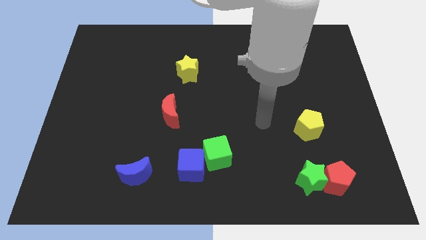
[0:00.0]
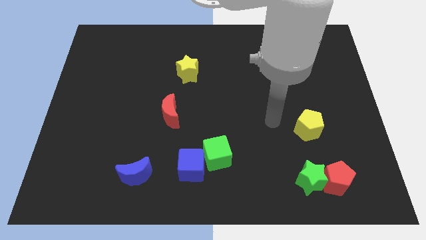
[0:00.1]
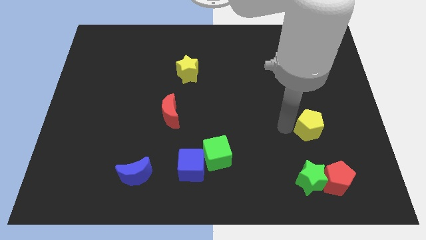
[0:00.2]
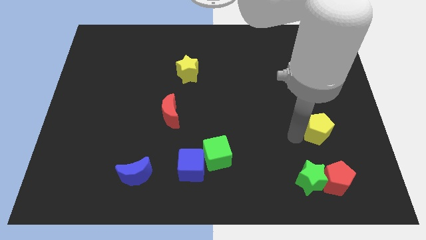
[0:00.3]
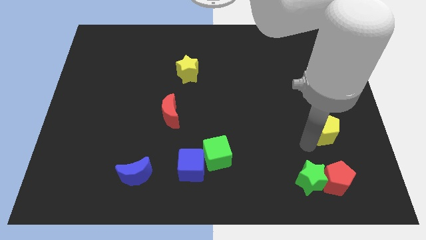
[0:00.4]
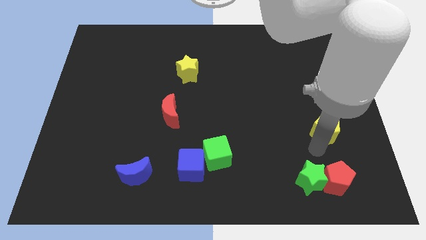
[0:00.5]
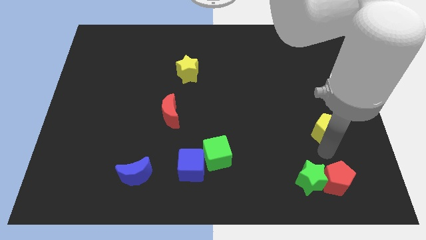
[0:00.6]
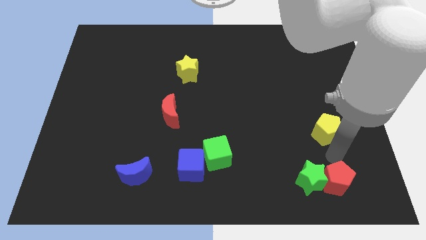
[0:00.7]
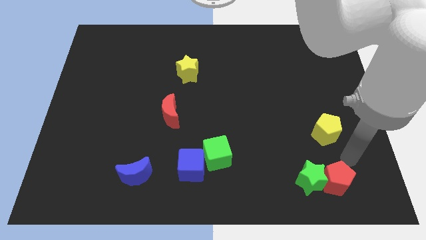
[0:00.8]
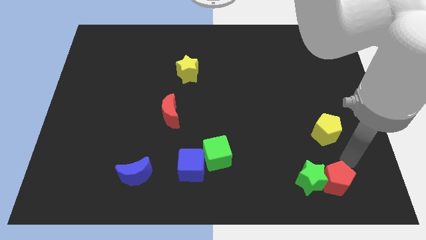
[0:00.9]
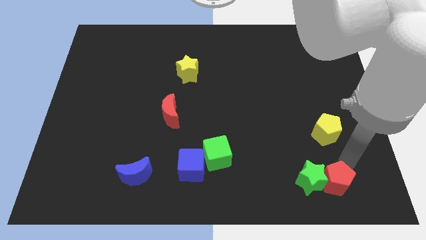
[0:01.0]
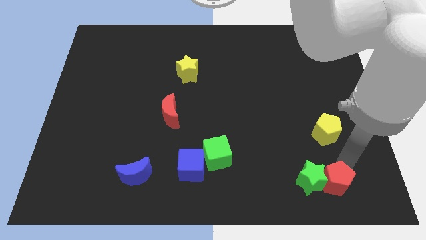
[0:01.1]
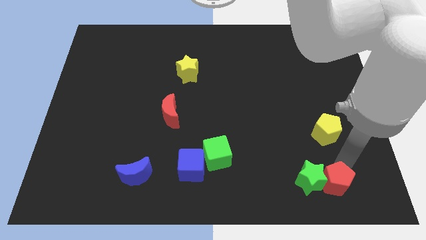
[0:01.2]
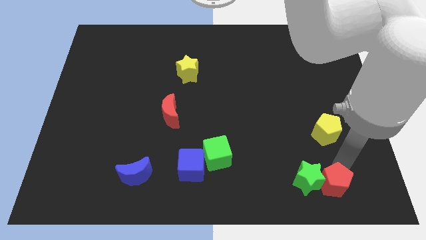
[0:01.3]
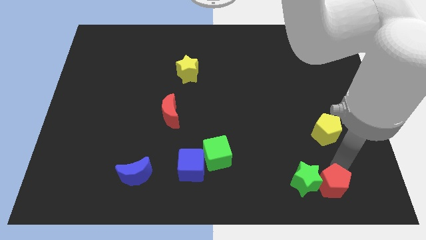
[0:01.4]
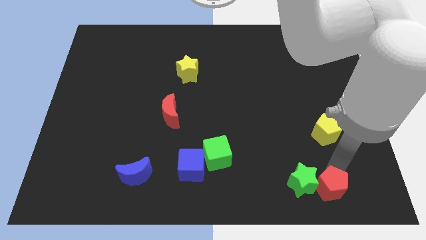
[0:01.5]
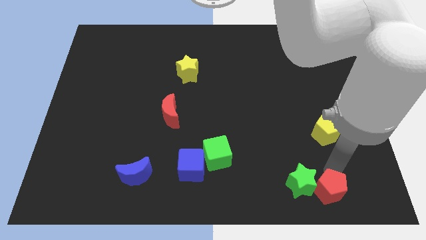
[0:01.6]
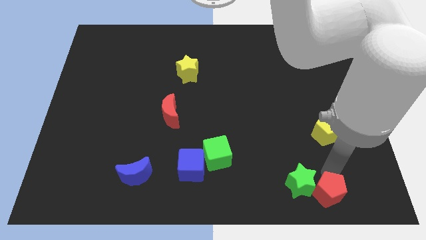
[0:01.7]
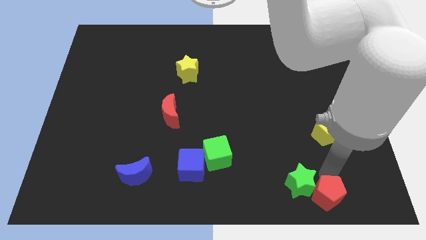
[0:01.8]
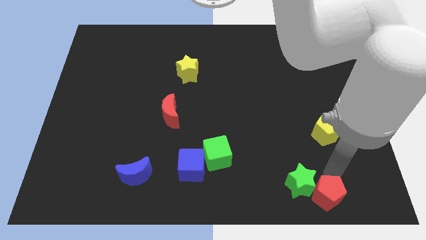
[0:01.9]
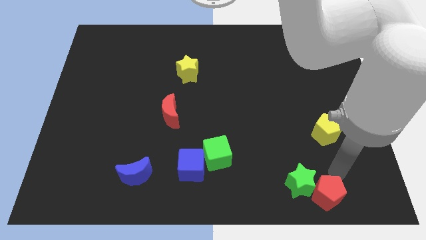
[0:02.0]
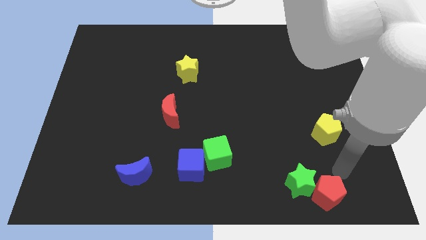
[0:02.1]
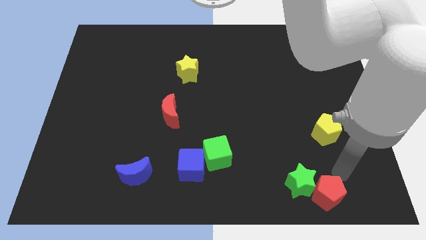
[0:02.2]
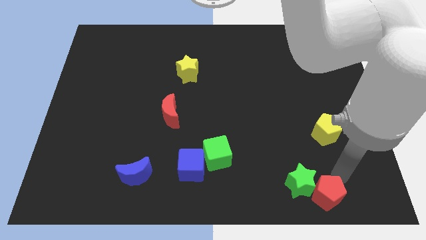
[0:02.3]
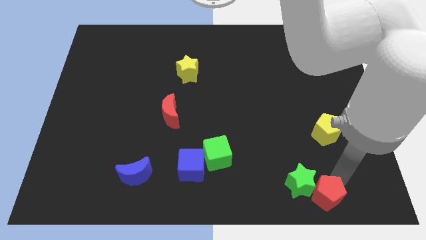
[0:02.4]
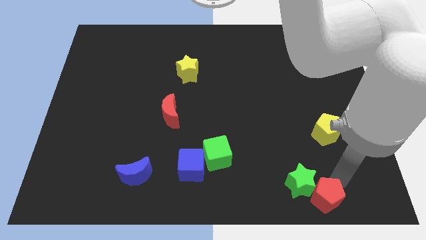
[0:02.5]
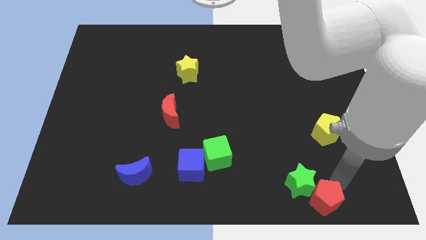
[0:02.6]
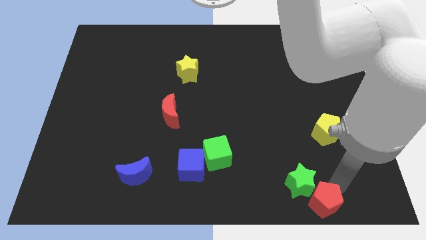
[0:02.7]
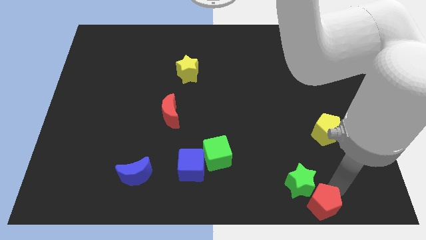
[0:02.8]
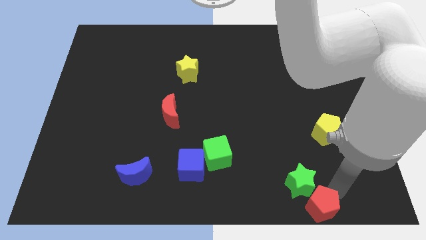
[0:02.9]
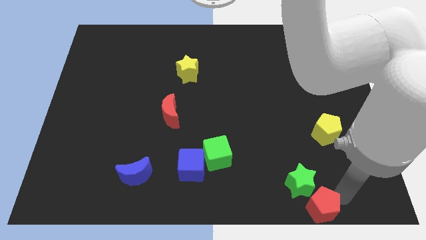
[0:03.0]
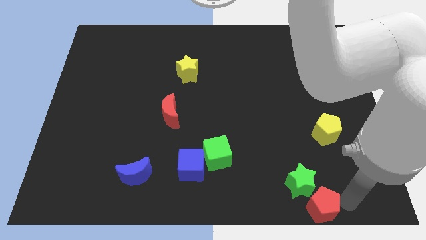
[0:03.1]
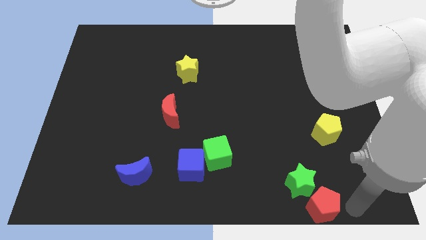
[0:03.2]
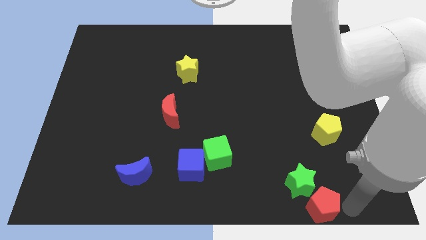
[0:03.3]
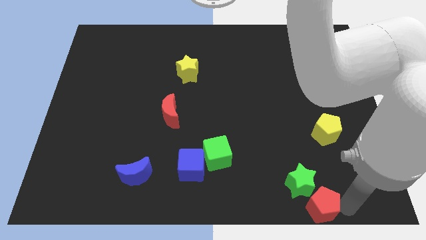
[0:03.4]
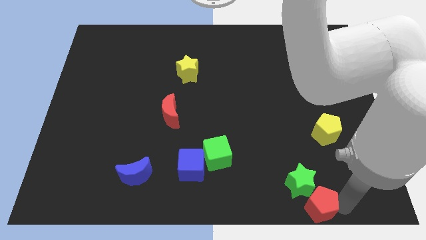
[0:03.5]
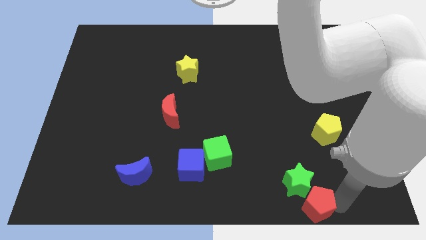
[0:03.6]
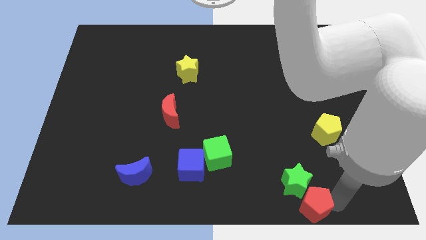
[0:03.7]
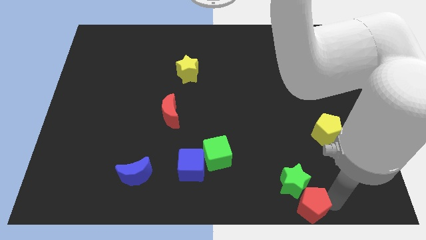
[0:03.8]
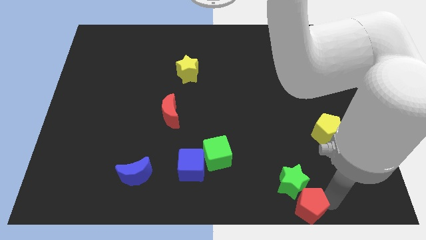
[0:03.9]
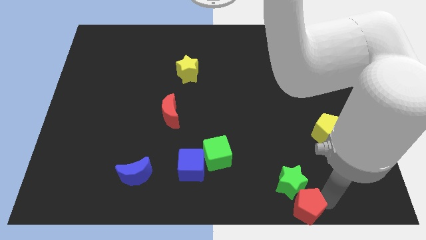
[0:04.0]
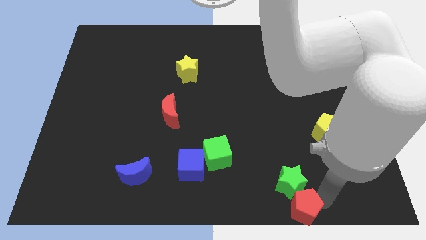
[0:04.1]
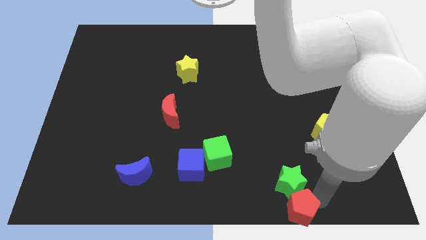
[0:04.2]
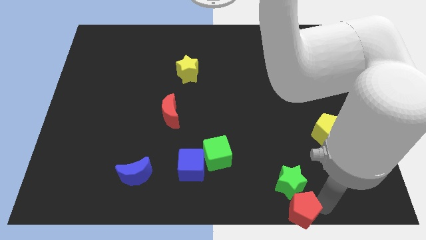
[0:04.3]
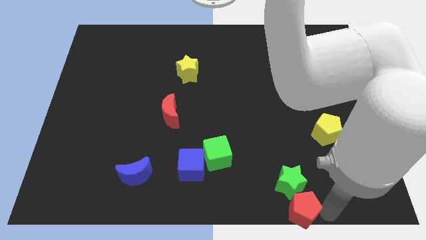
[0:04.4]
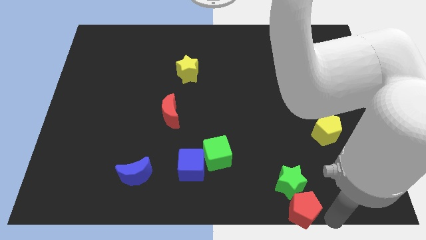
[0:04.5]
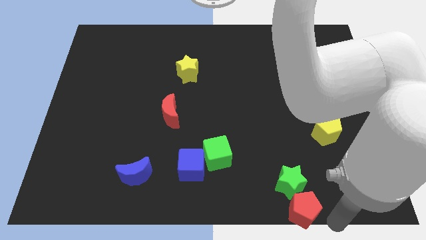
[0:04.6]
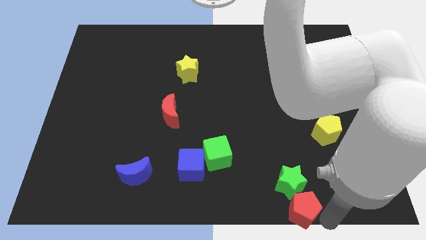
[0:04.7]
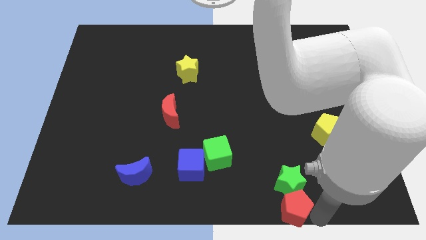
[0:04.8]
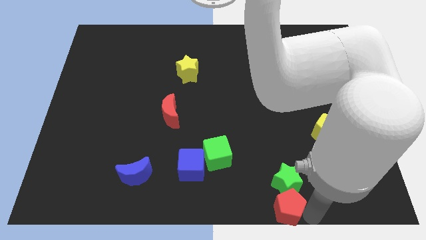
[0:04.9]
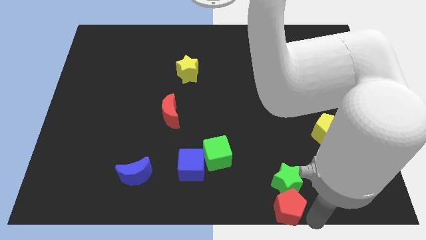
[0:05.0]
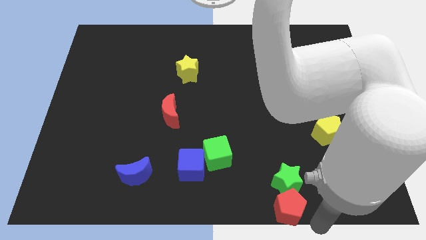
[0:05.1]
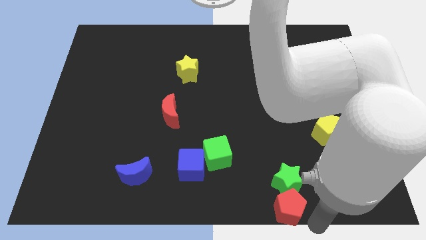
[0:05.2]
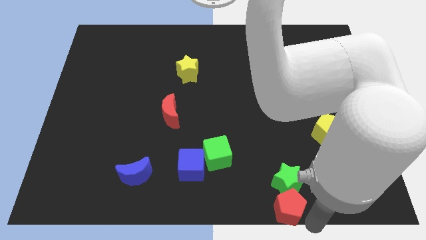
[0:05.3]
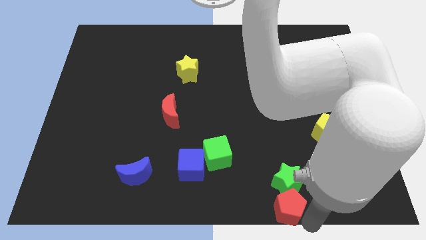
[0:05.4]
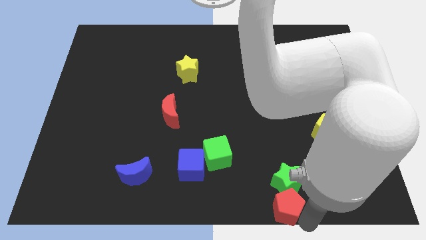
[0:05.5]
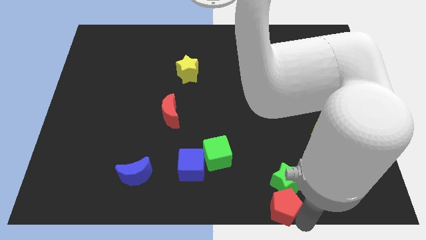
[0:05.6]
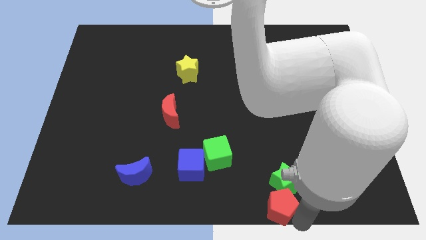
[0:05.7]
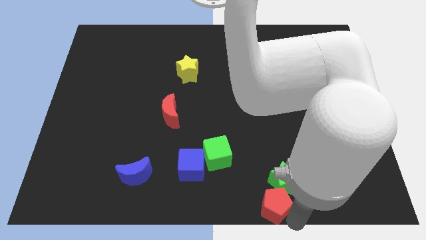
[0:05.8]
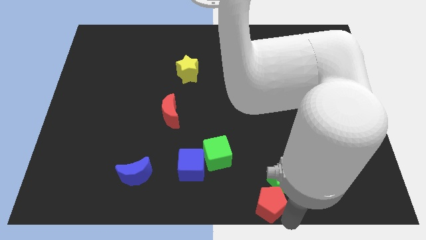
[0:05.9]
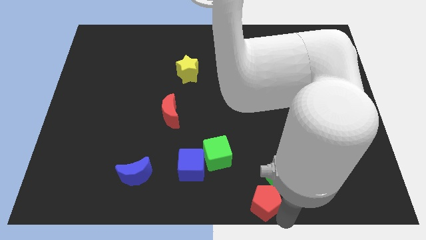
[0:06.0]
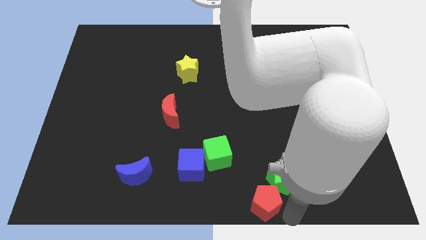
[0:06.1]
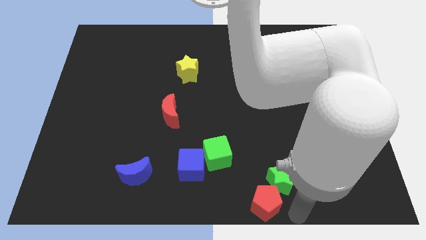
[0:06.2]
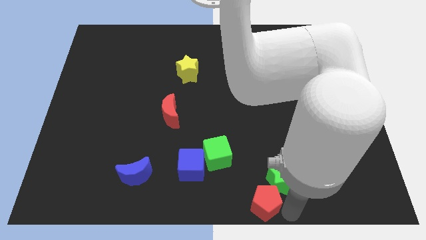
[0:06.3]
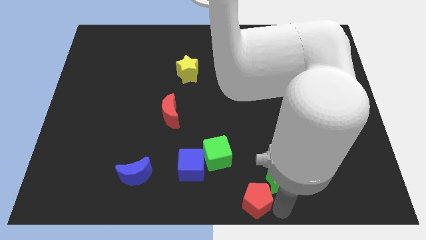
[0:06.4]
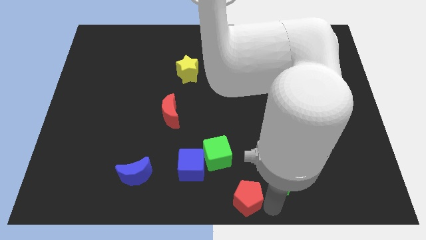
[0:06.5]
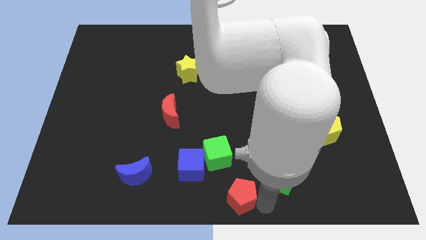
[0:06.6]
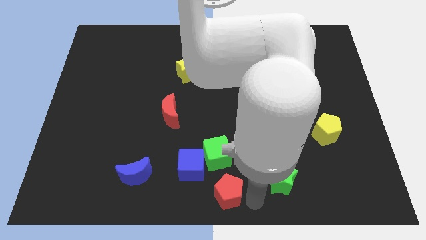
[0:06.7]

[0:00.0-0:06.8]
slide the red pentagon left

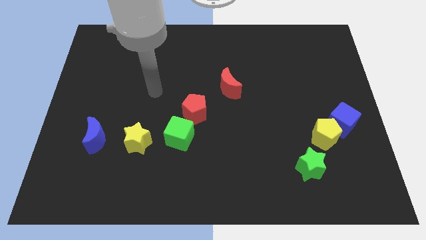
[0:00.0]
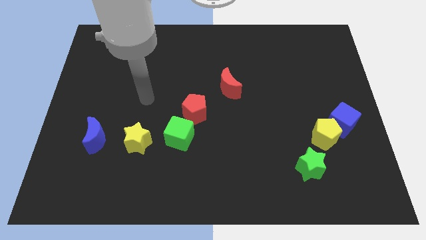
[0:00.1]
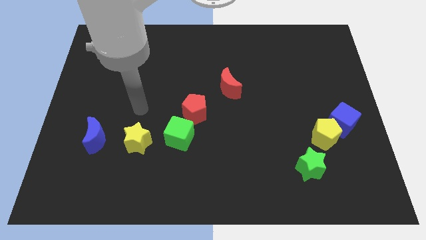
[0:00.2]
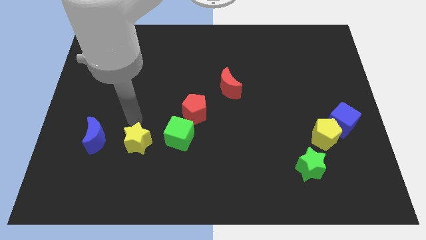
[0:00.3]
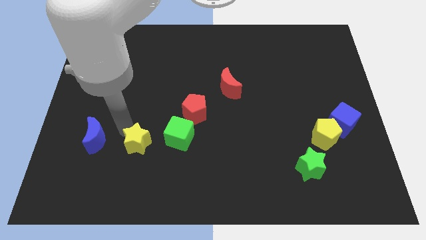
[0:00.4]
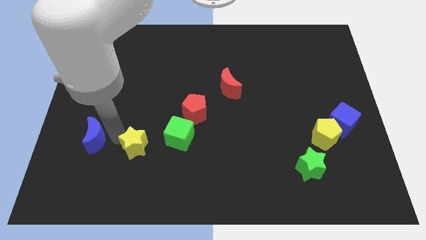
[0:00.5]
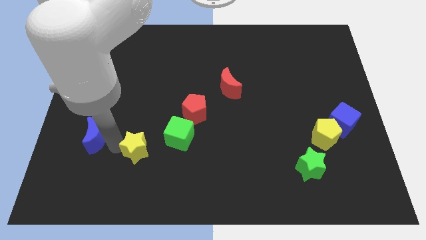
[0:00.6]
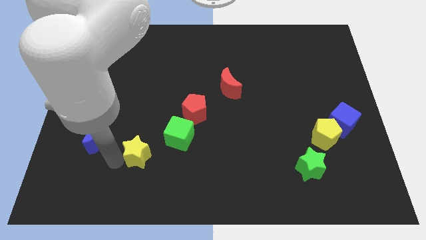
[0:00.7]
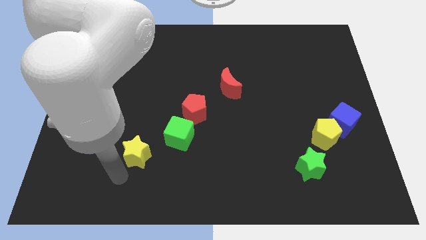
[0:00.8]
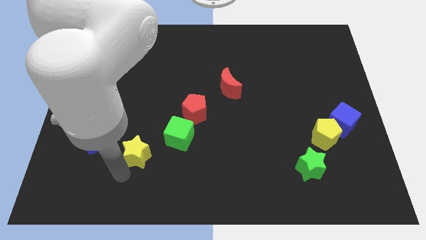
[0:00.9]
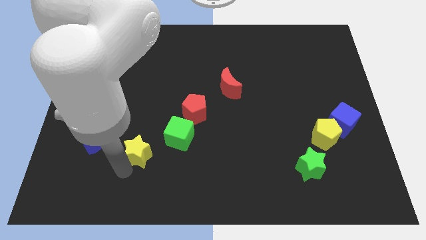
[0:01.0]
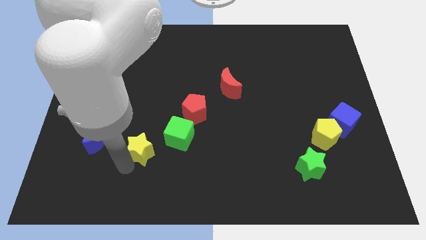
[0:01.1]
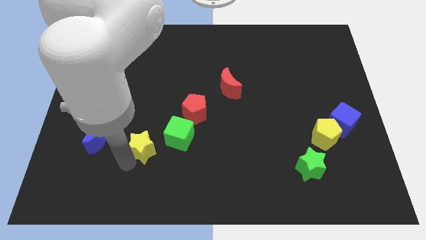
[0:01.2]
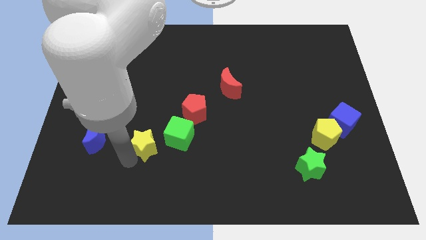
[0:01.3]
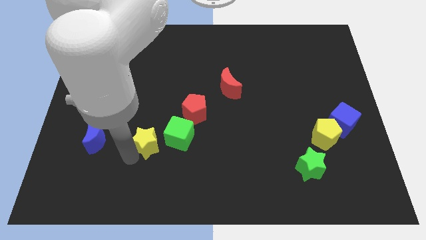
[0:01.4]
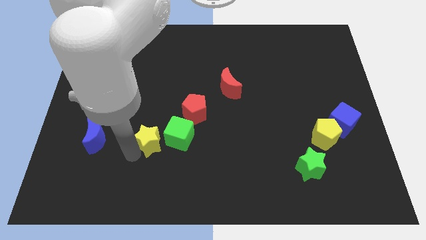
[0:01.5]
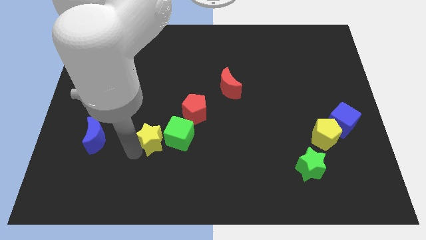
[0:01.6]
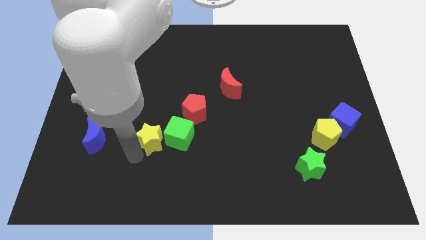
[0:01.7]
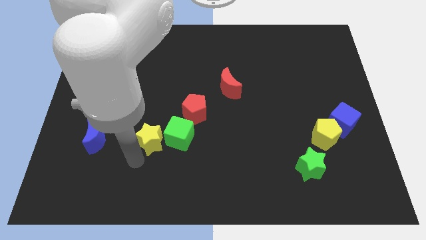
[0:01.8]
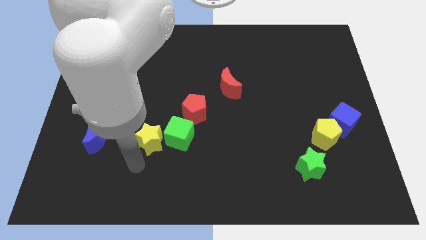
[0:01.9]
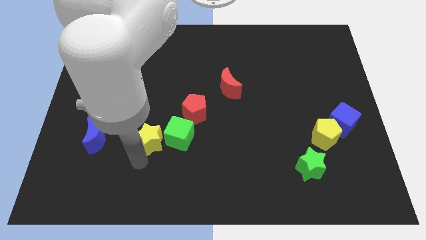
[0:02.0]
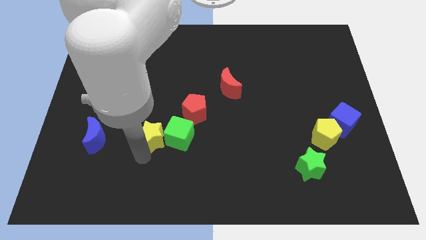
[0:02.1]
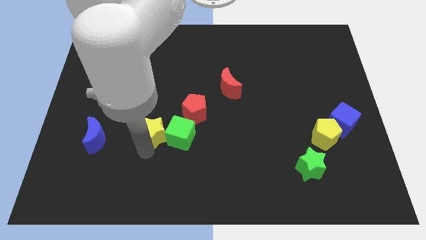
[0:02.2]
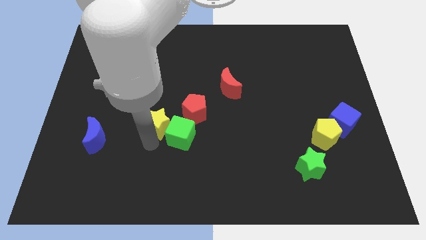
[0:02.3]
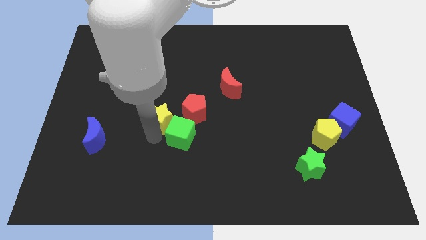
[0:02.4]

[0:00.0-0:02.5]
push the yellow star diagonally upwards and to the right a little
